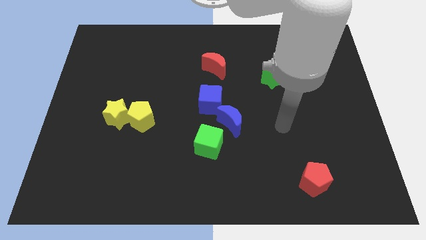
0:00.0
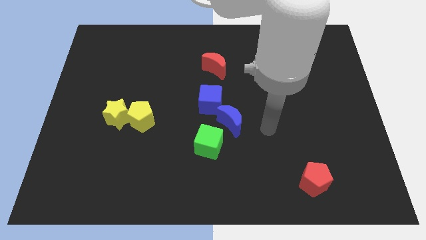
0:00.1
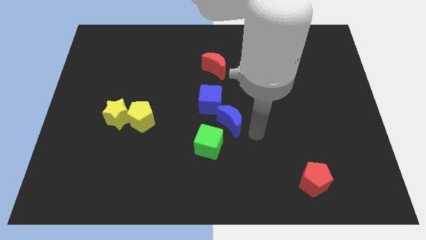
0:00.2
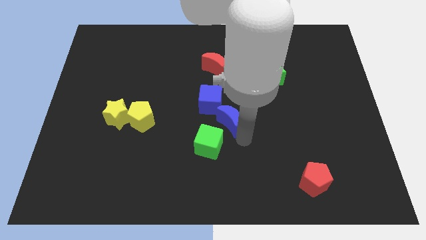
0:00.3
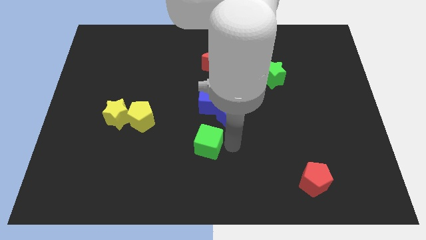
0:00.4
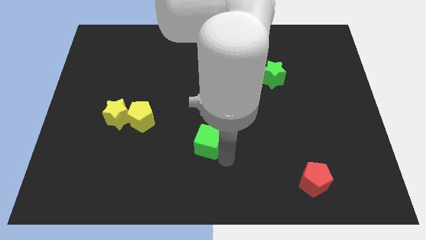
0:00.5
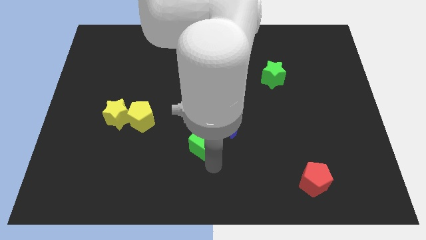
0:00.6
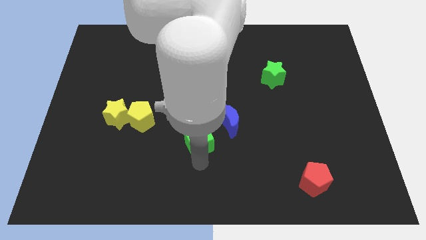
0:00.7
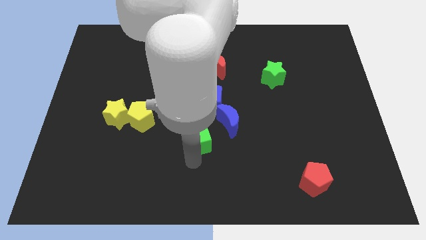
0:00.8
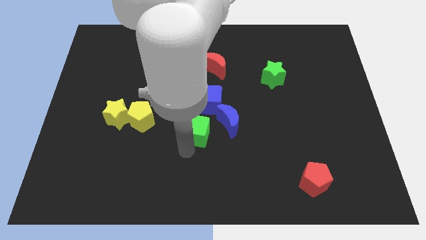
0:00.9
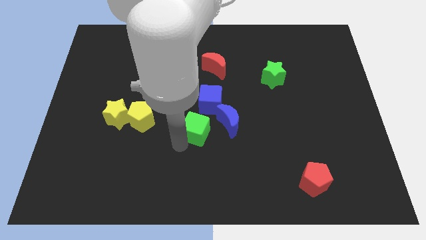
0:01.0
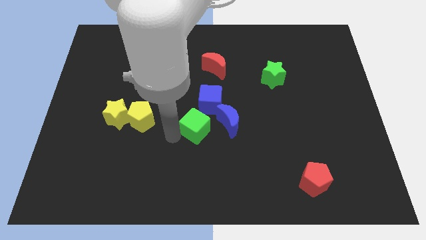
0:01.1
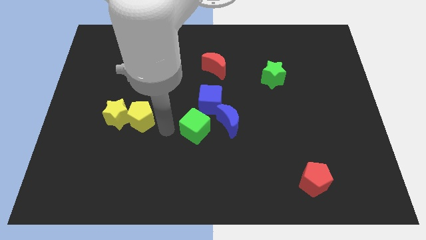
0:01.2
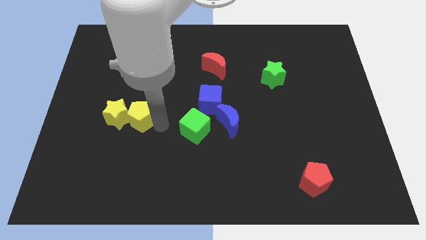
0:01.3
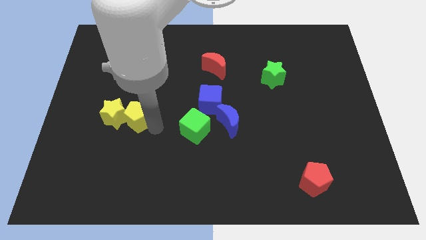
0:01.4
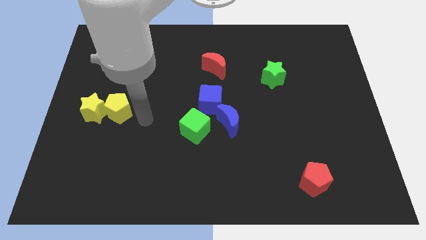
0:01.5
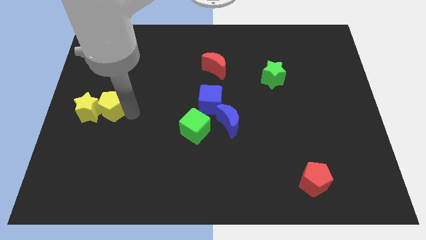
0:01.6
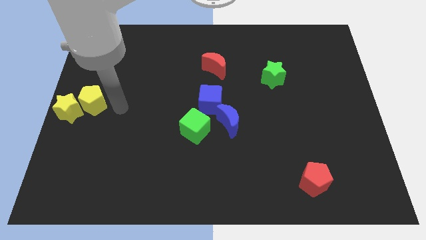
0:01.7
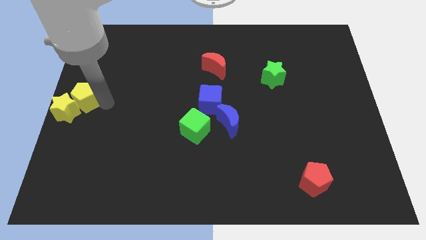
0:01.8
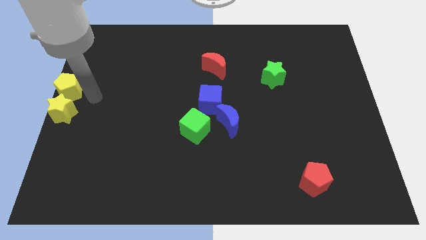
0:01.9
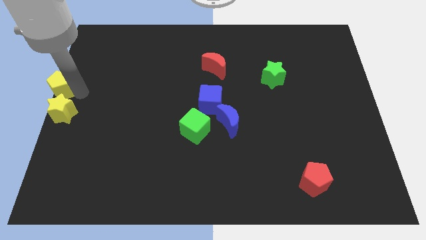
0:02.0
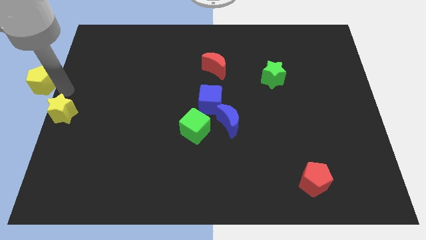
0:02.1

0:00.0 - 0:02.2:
separate the yellow star from the yellow pentagon

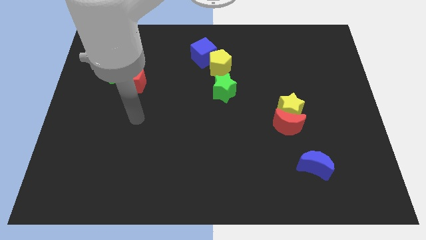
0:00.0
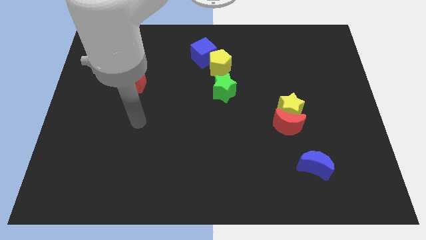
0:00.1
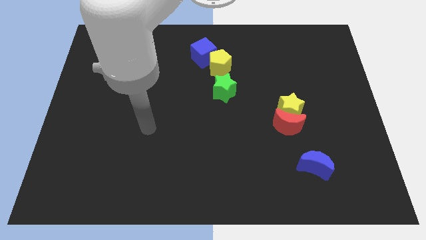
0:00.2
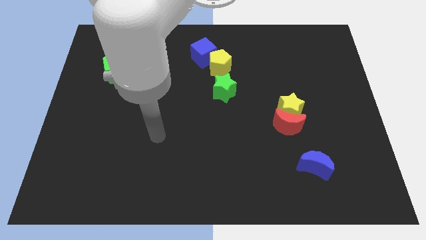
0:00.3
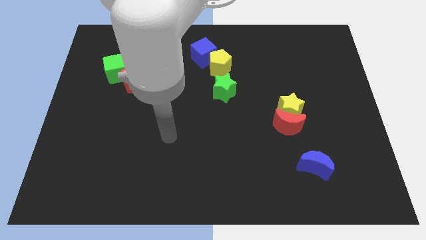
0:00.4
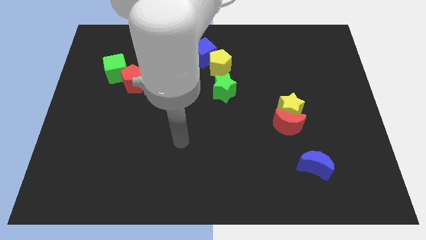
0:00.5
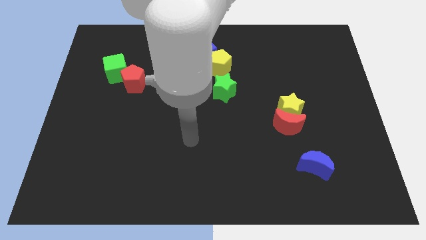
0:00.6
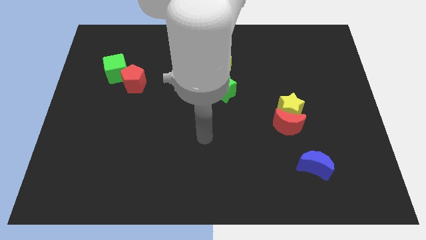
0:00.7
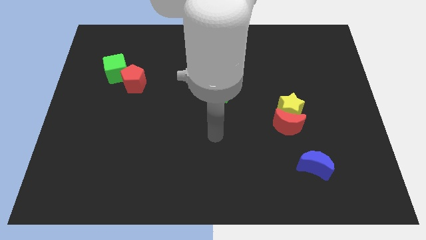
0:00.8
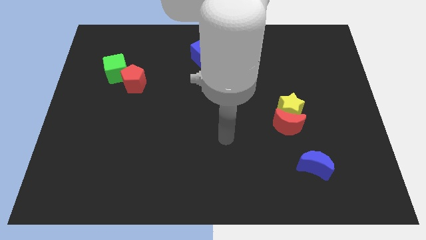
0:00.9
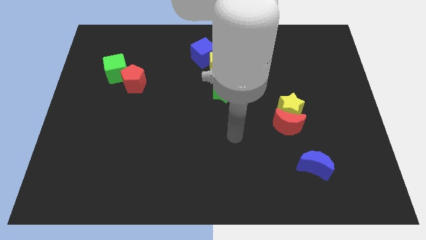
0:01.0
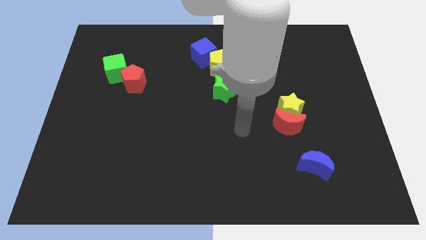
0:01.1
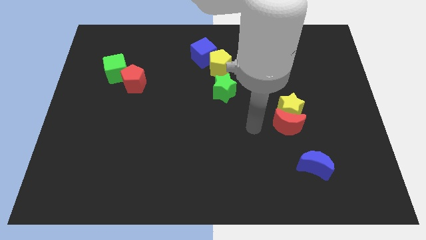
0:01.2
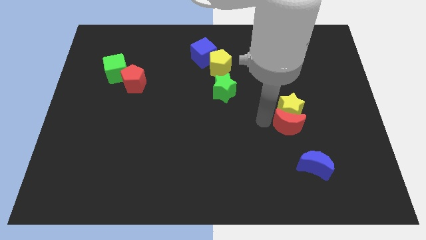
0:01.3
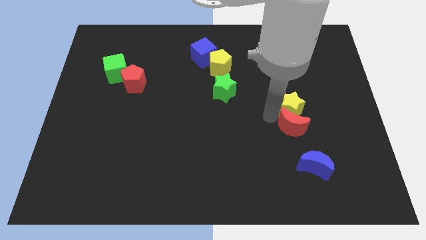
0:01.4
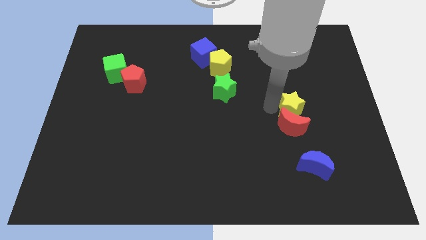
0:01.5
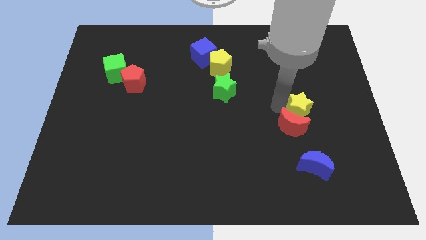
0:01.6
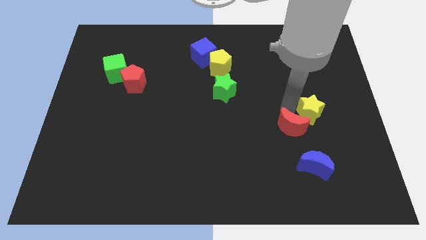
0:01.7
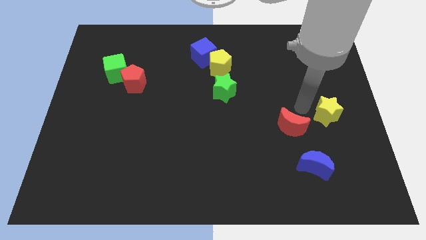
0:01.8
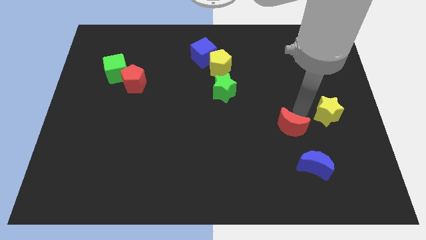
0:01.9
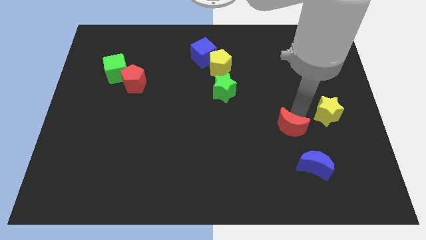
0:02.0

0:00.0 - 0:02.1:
pull the red moon apart from the yellow star

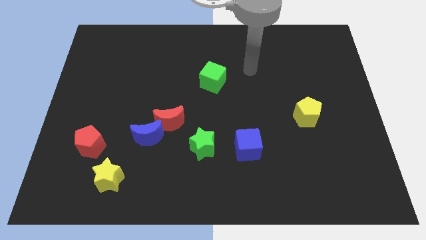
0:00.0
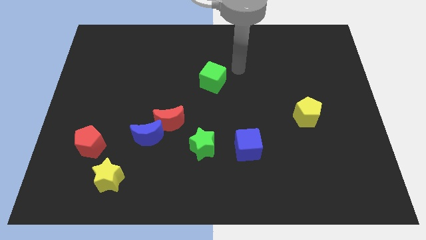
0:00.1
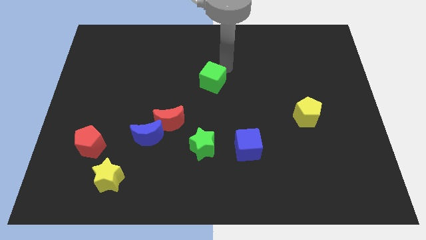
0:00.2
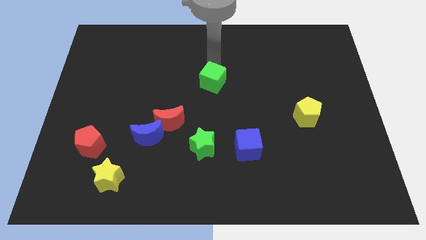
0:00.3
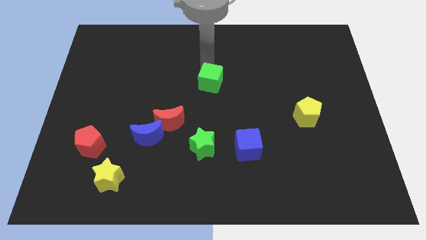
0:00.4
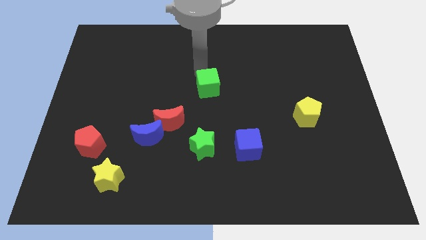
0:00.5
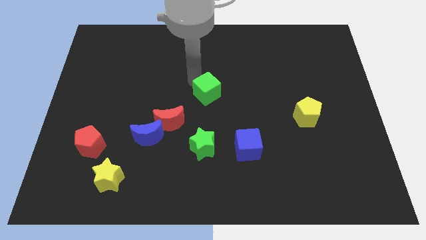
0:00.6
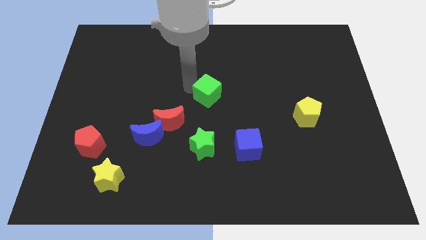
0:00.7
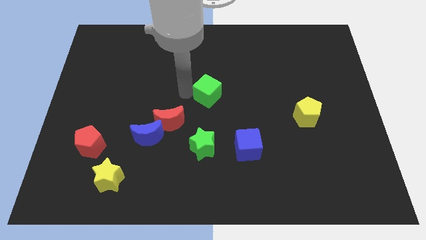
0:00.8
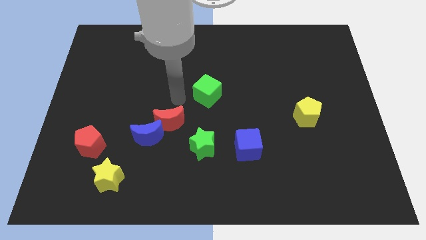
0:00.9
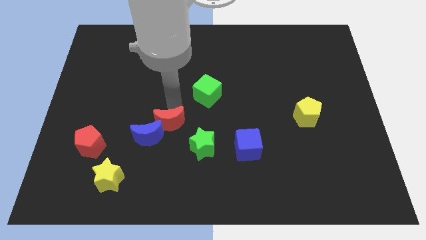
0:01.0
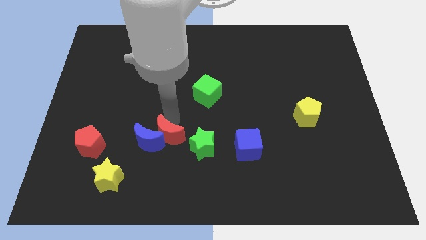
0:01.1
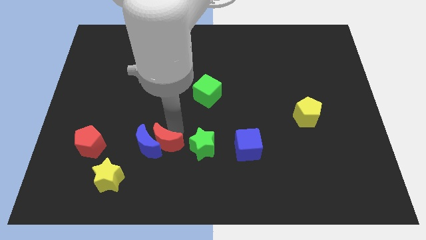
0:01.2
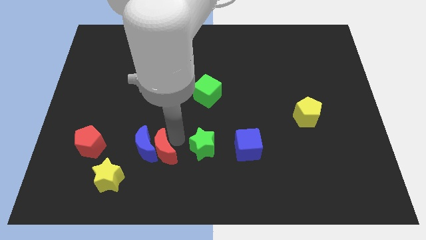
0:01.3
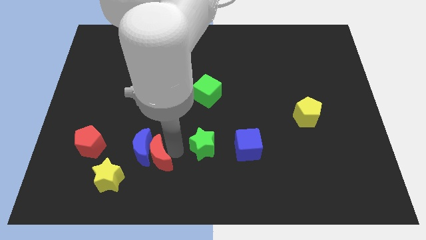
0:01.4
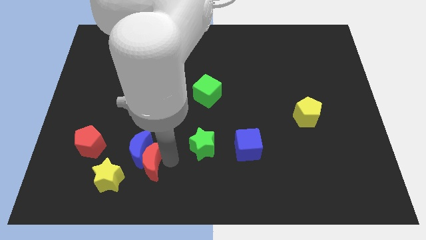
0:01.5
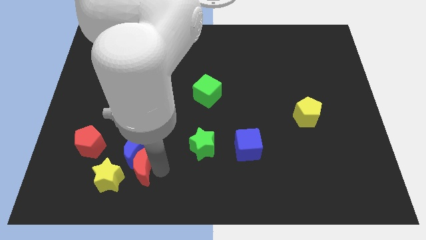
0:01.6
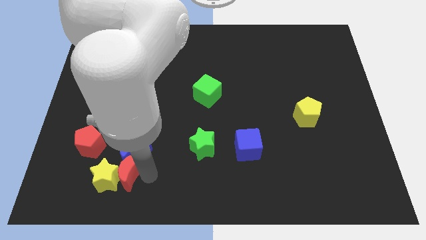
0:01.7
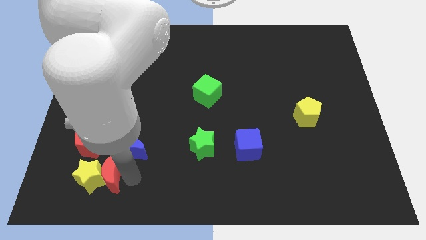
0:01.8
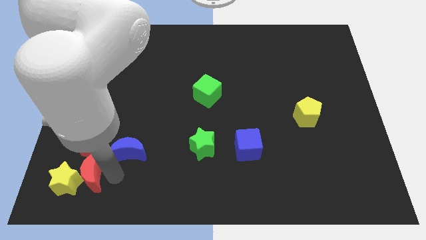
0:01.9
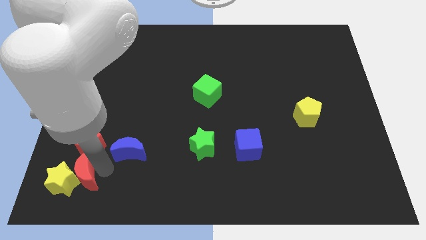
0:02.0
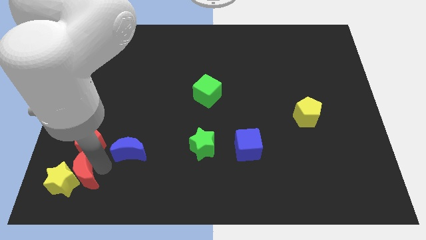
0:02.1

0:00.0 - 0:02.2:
separate the blue moon from the red moon

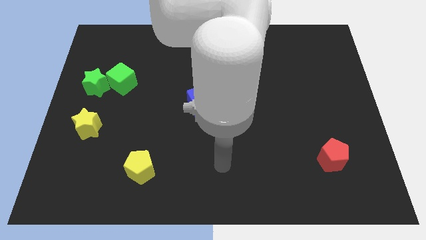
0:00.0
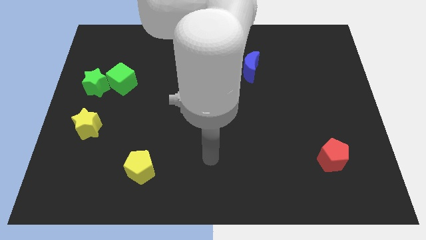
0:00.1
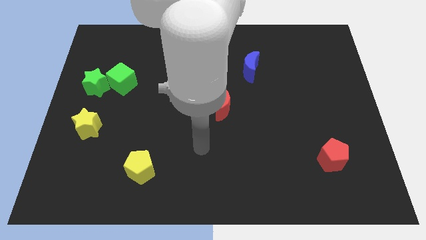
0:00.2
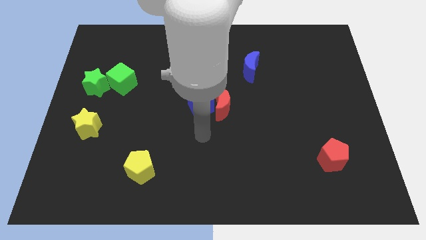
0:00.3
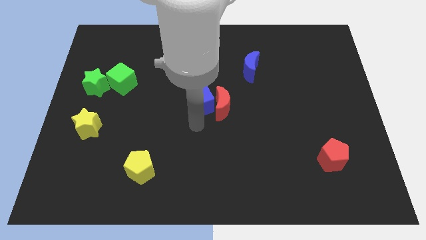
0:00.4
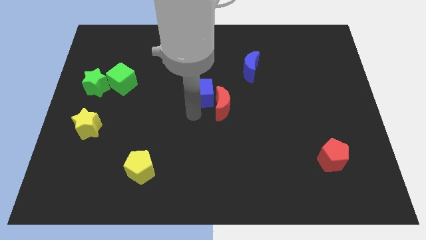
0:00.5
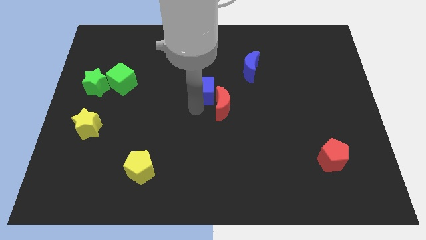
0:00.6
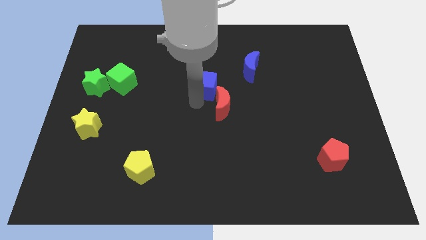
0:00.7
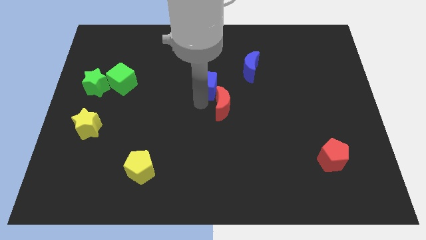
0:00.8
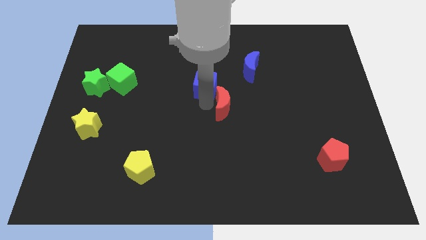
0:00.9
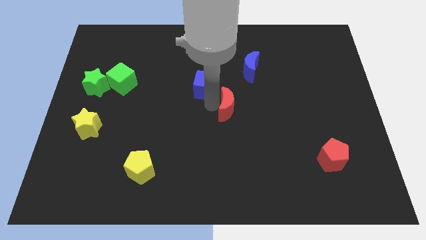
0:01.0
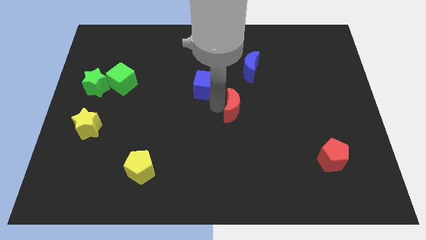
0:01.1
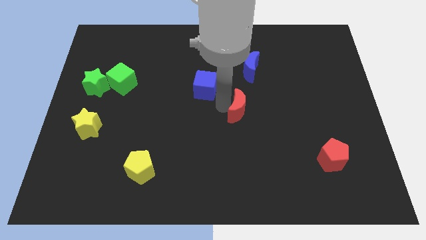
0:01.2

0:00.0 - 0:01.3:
separate the red moon from the blue cube

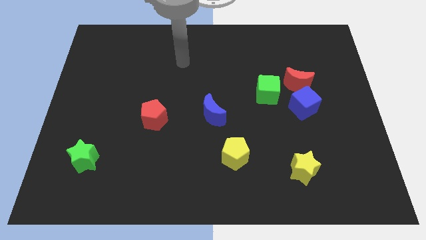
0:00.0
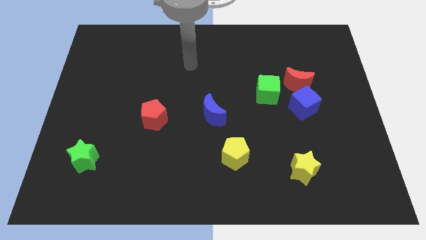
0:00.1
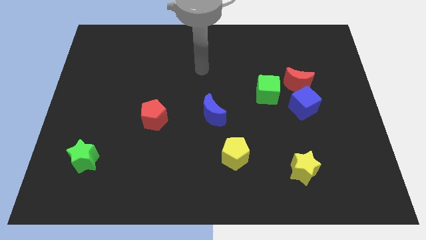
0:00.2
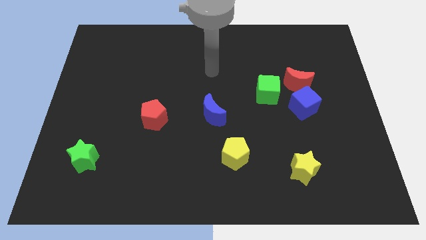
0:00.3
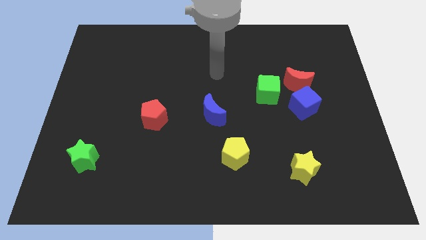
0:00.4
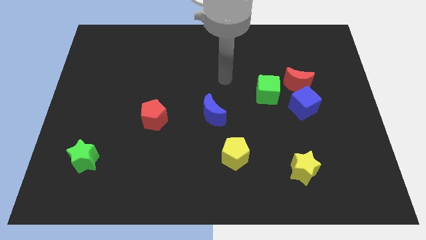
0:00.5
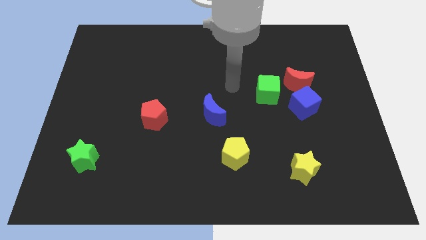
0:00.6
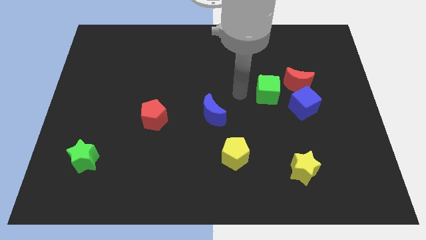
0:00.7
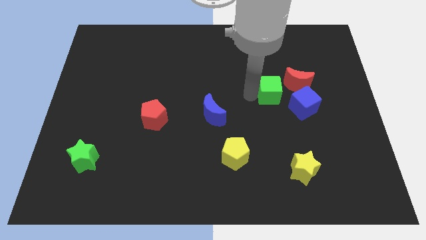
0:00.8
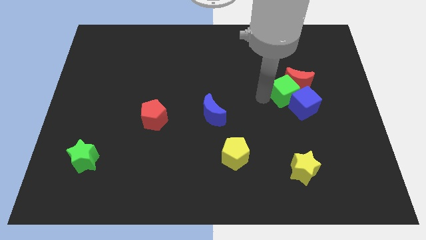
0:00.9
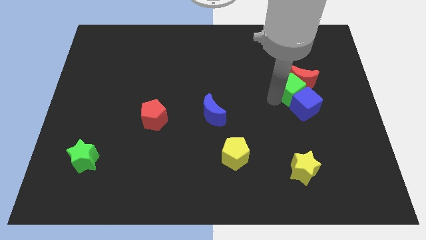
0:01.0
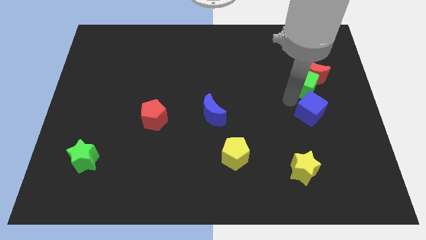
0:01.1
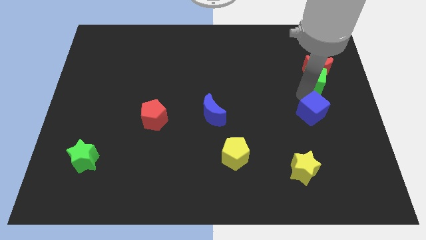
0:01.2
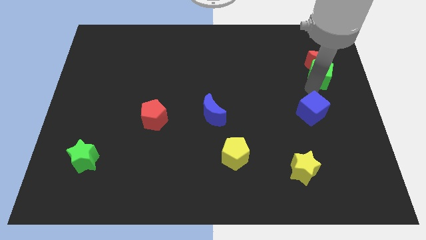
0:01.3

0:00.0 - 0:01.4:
separate the red moon from the blue cube and green cube
